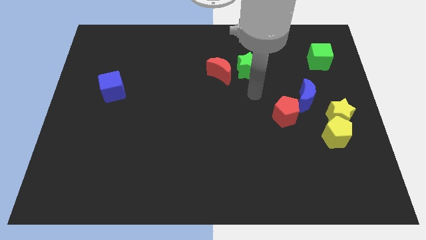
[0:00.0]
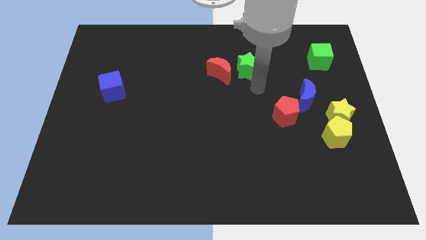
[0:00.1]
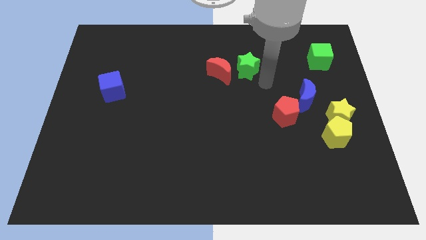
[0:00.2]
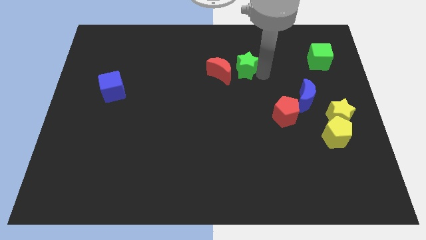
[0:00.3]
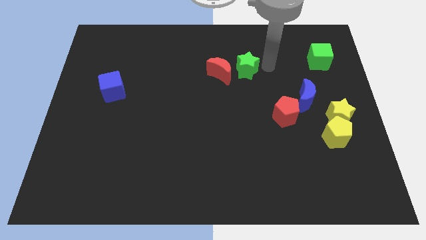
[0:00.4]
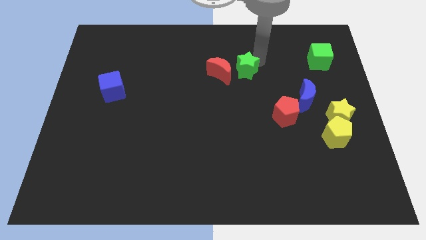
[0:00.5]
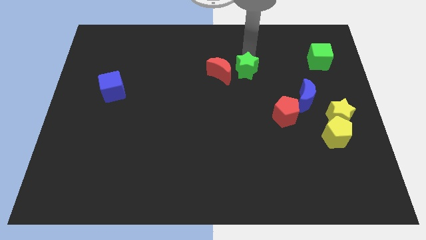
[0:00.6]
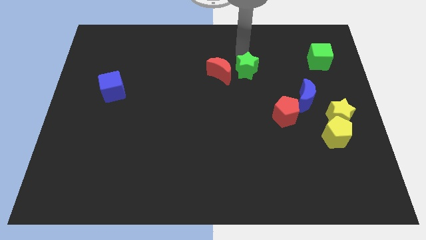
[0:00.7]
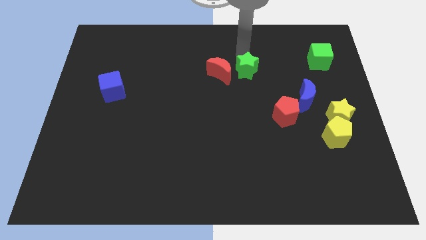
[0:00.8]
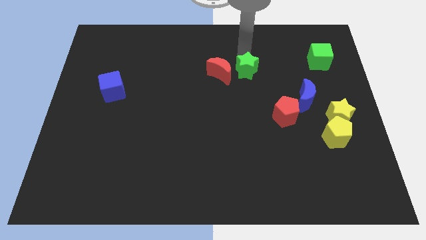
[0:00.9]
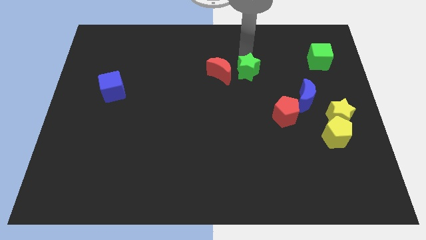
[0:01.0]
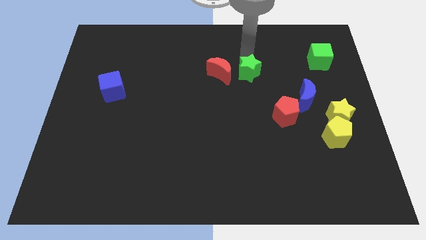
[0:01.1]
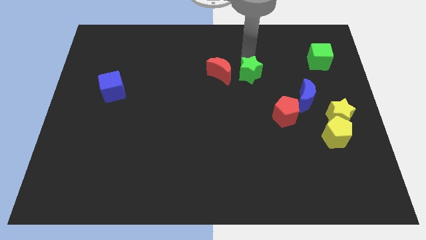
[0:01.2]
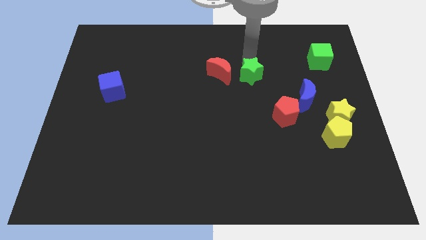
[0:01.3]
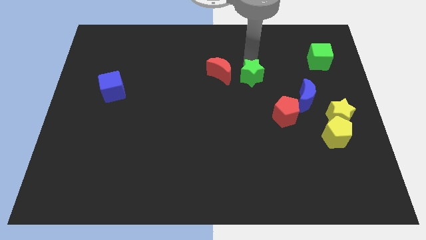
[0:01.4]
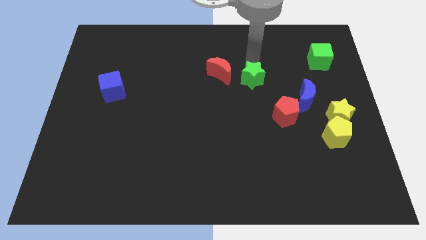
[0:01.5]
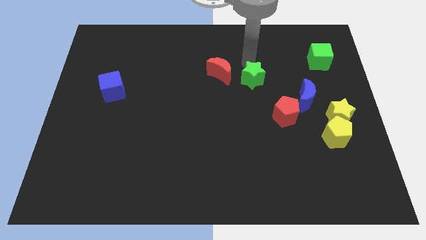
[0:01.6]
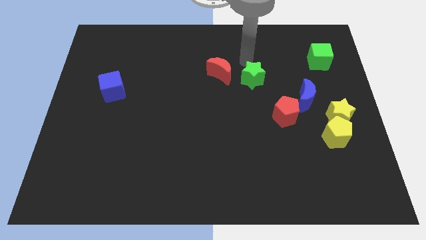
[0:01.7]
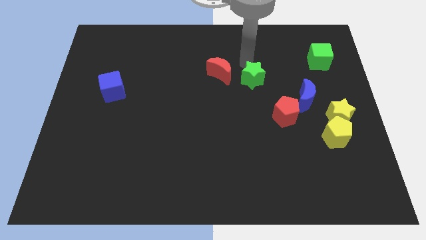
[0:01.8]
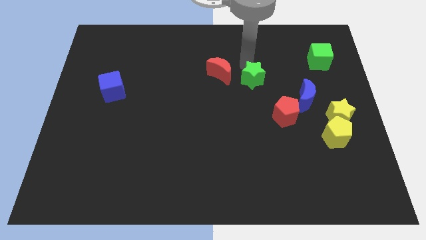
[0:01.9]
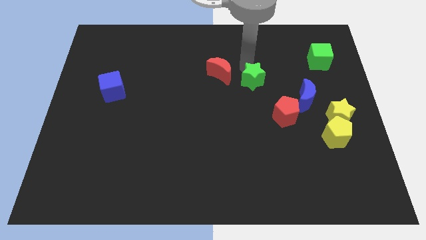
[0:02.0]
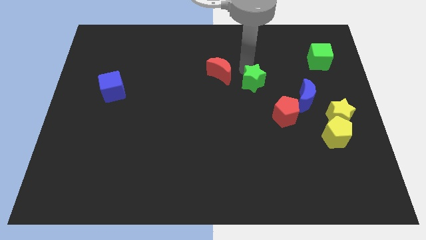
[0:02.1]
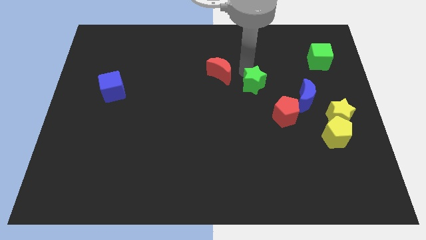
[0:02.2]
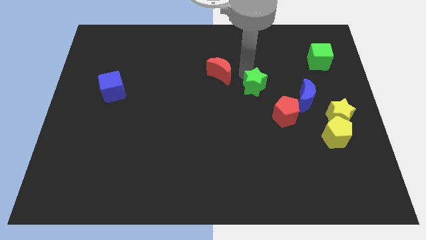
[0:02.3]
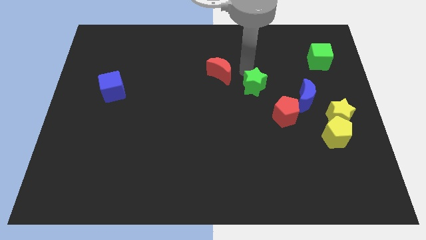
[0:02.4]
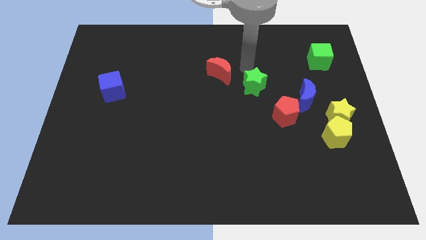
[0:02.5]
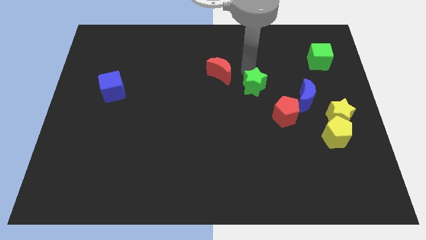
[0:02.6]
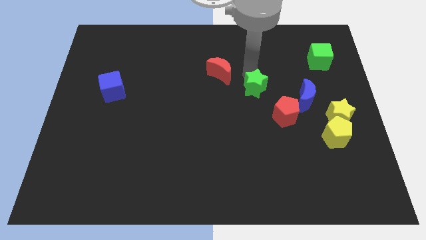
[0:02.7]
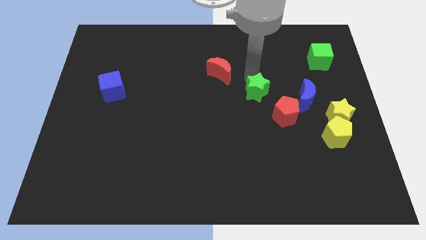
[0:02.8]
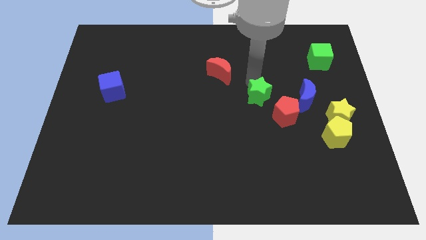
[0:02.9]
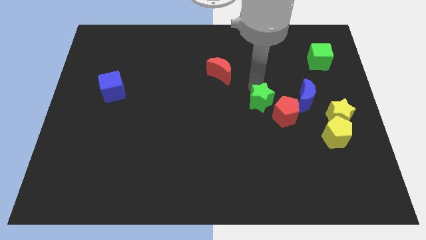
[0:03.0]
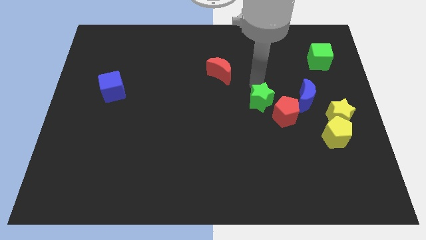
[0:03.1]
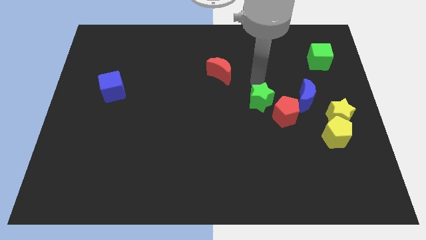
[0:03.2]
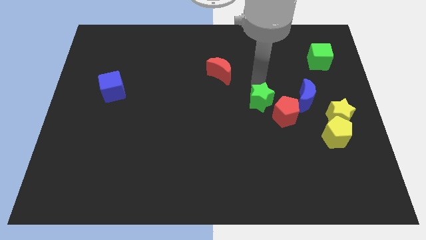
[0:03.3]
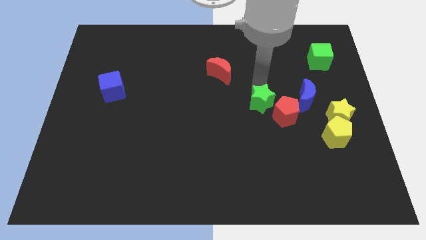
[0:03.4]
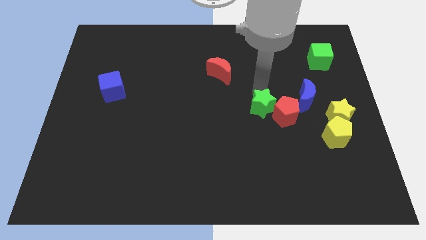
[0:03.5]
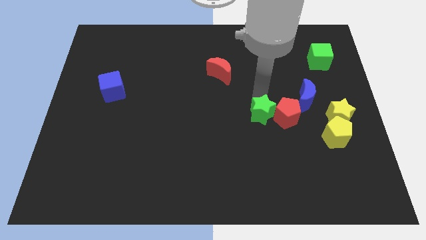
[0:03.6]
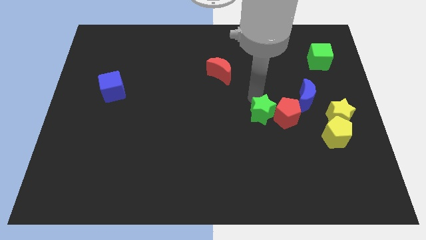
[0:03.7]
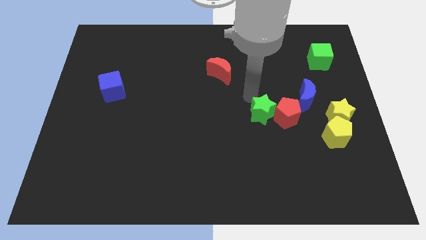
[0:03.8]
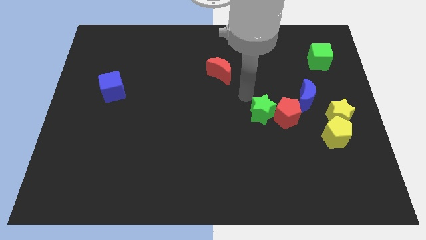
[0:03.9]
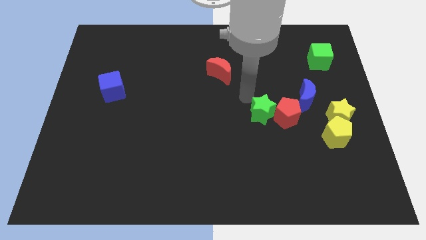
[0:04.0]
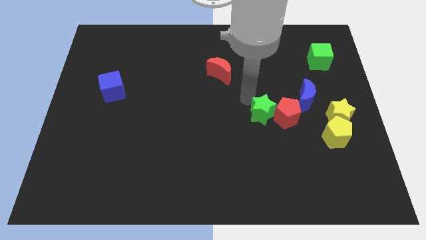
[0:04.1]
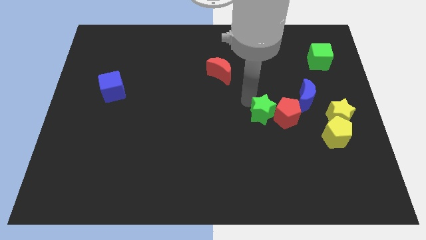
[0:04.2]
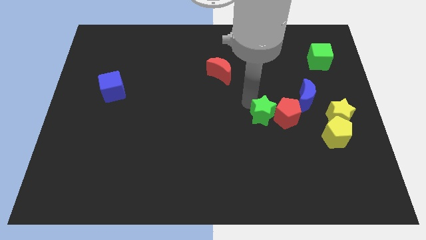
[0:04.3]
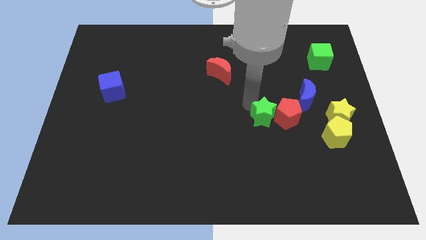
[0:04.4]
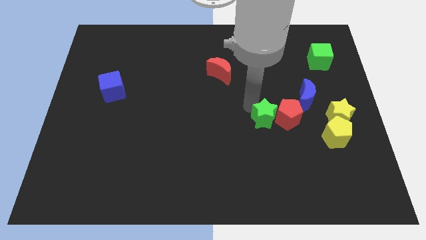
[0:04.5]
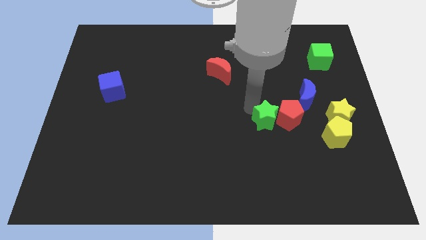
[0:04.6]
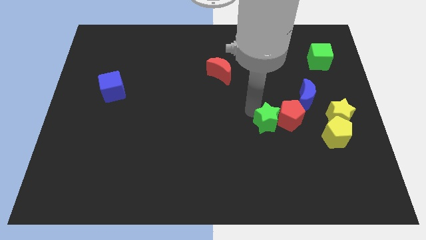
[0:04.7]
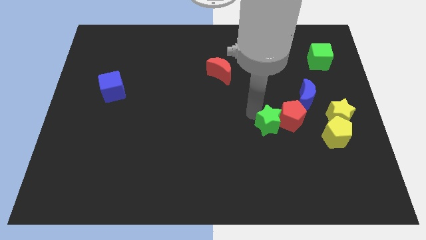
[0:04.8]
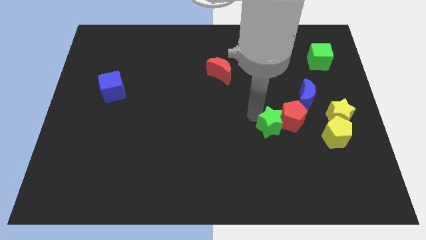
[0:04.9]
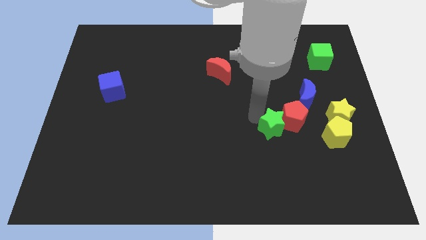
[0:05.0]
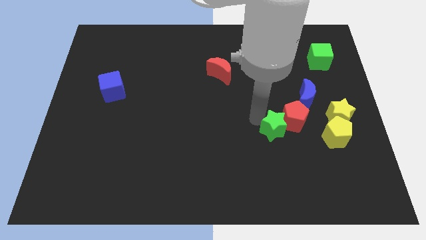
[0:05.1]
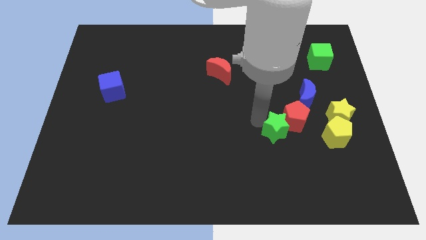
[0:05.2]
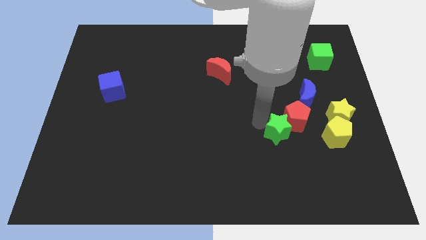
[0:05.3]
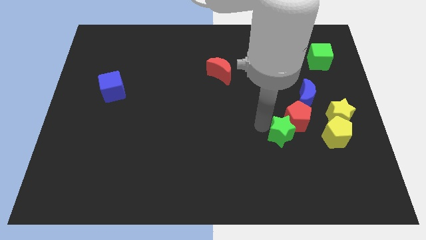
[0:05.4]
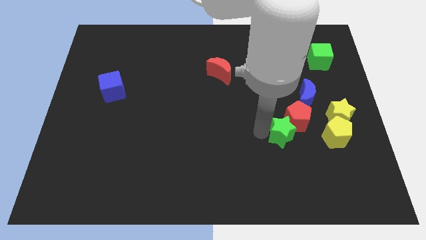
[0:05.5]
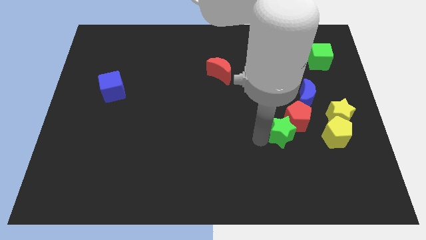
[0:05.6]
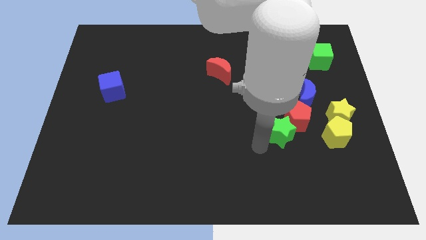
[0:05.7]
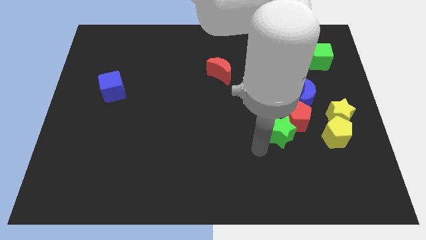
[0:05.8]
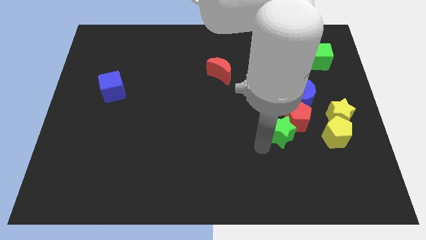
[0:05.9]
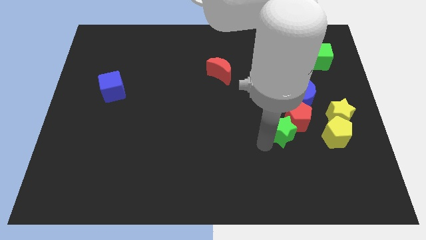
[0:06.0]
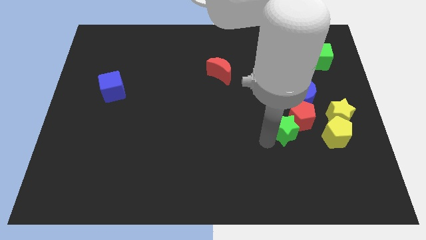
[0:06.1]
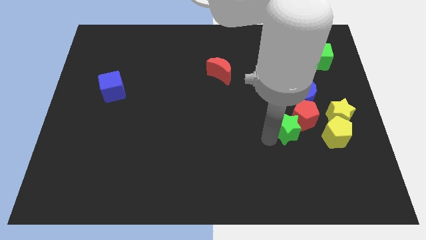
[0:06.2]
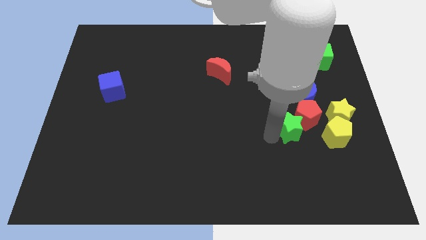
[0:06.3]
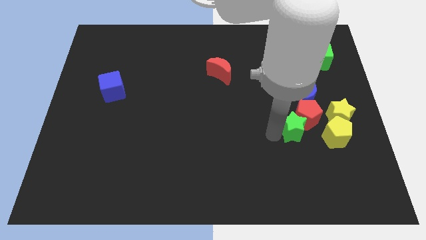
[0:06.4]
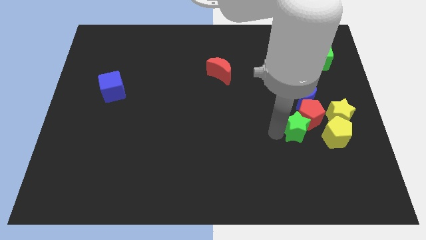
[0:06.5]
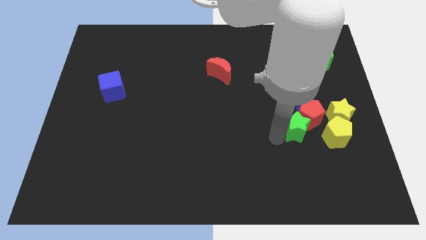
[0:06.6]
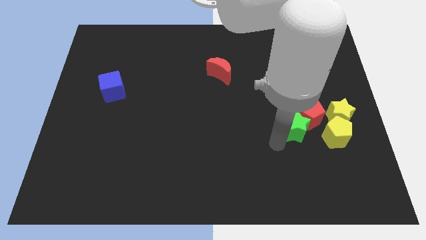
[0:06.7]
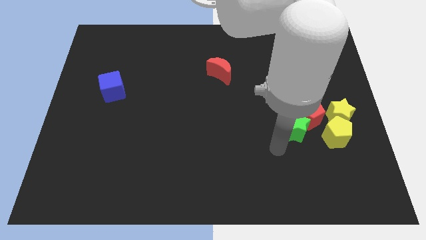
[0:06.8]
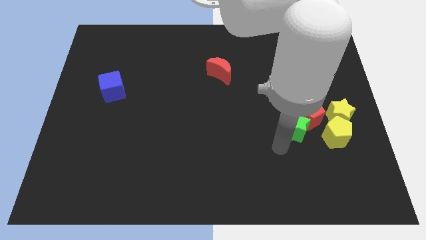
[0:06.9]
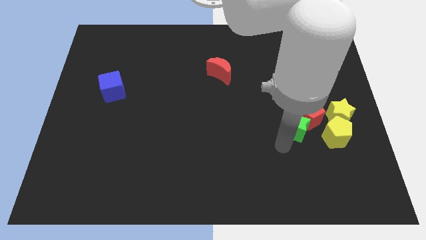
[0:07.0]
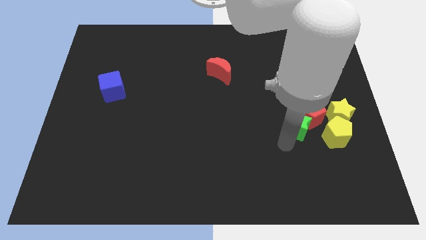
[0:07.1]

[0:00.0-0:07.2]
push the green star diagonally up and to the left of the yellow pentagon
